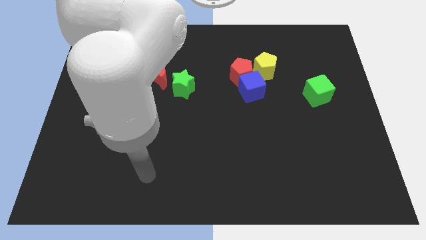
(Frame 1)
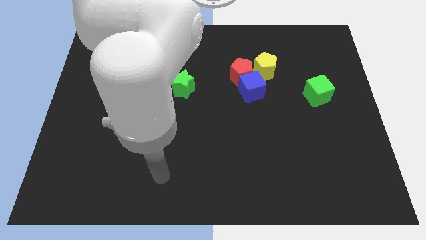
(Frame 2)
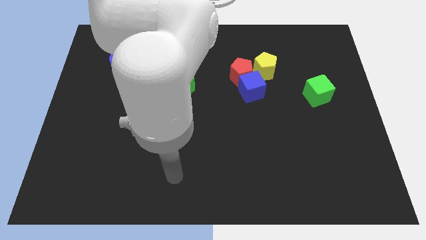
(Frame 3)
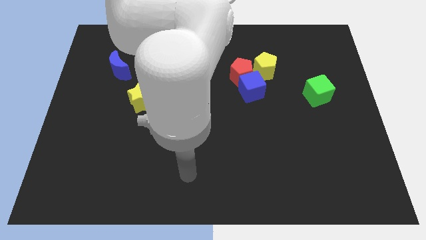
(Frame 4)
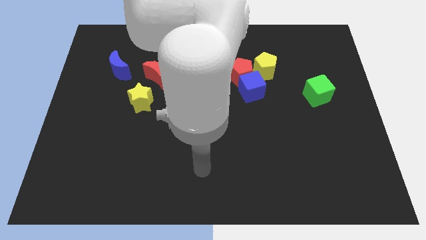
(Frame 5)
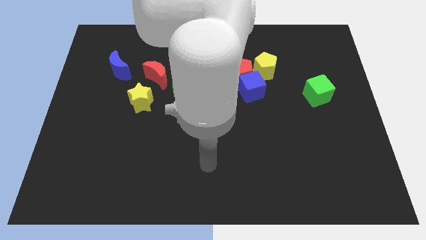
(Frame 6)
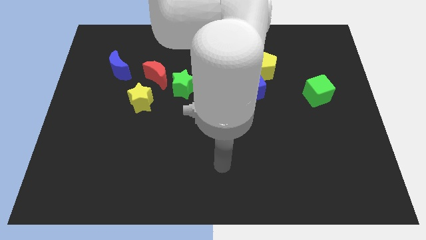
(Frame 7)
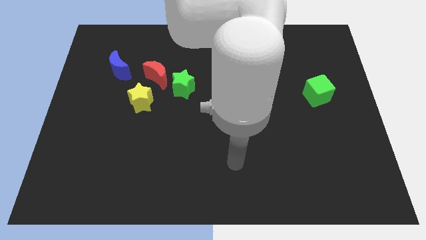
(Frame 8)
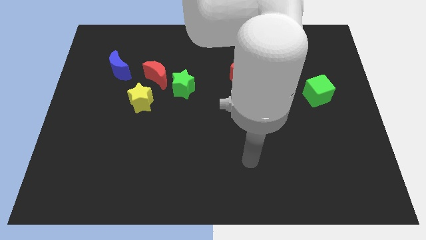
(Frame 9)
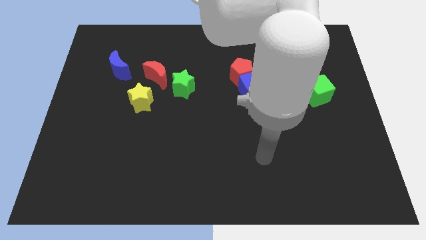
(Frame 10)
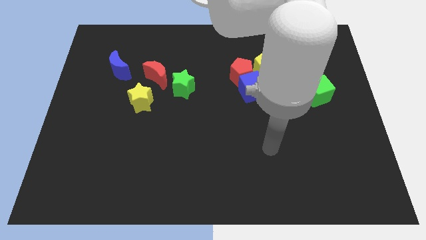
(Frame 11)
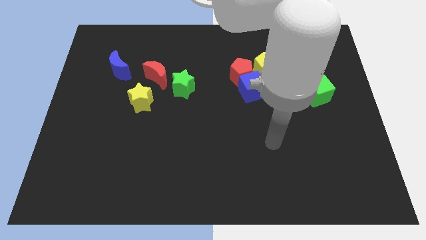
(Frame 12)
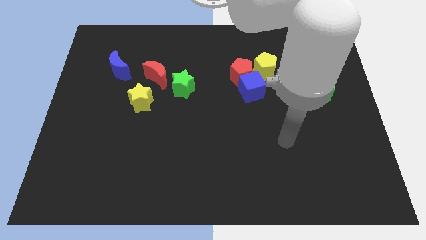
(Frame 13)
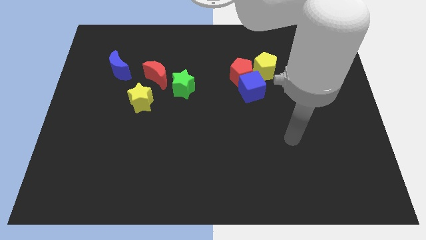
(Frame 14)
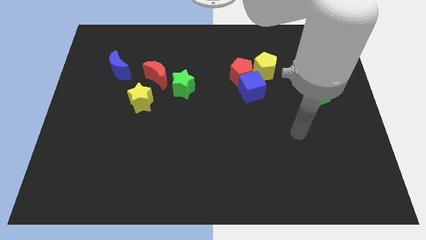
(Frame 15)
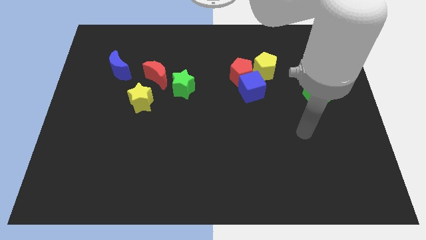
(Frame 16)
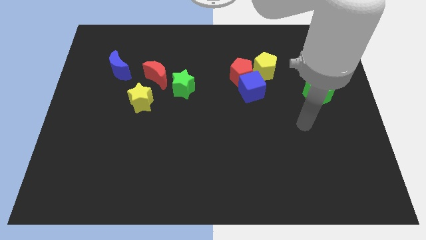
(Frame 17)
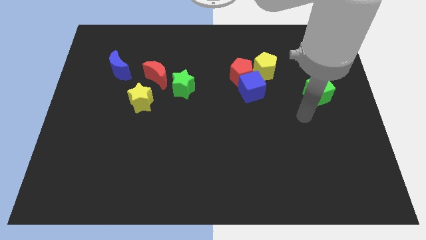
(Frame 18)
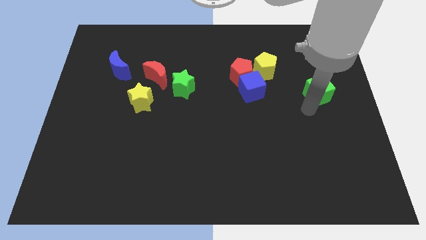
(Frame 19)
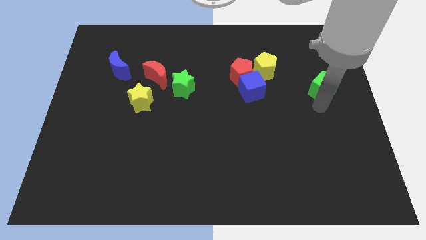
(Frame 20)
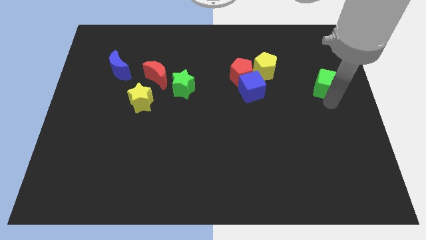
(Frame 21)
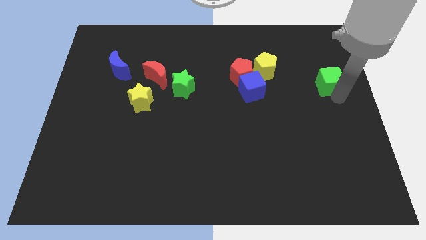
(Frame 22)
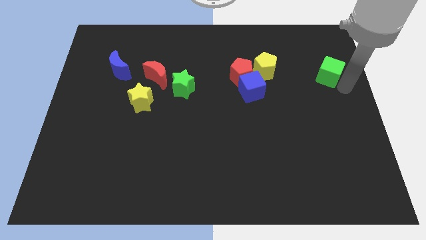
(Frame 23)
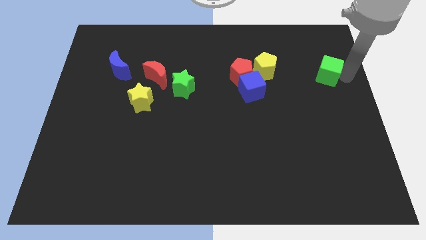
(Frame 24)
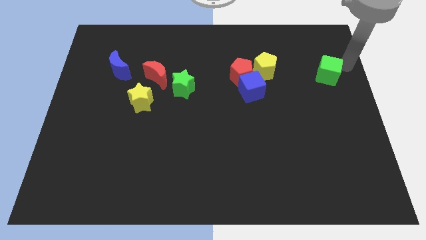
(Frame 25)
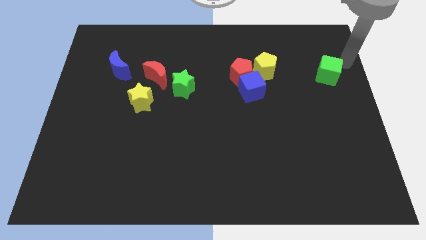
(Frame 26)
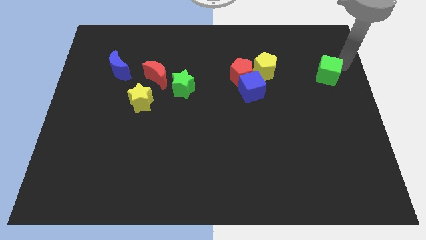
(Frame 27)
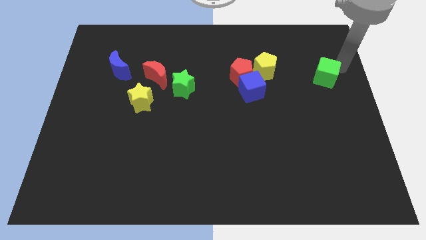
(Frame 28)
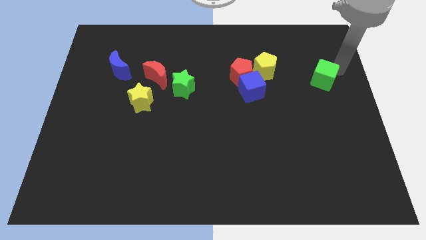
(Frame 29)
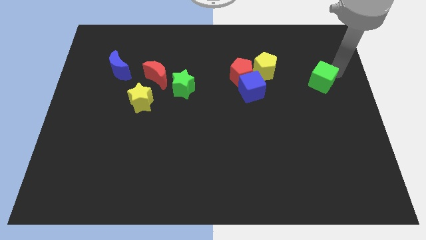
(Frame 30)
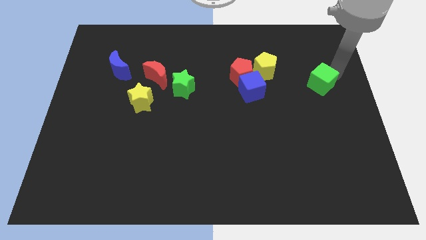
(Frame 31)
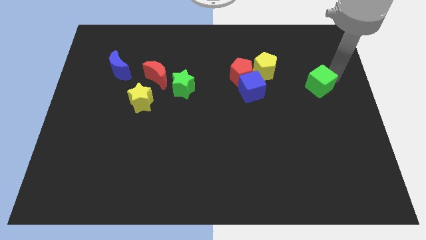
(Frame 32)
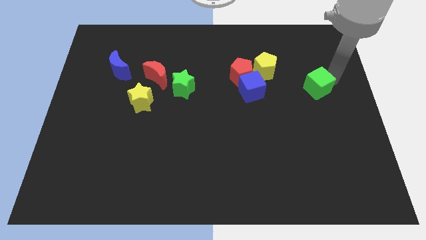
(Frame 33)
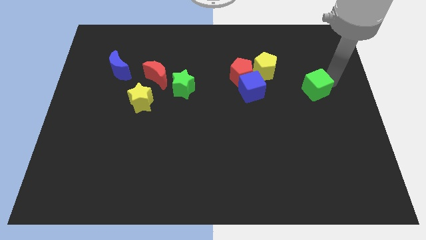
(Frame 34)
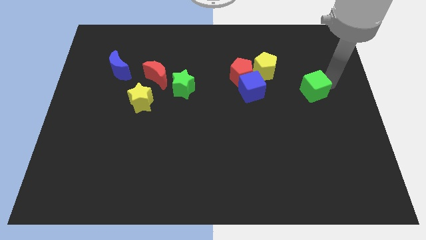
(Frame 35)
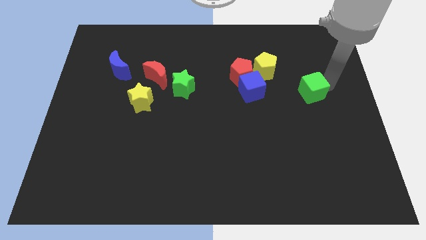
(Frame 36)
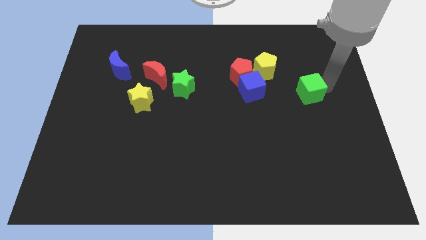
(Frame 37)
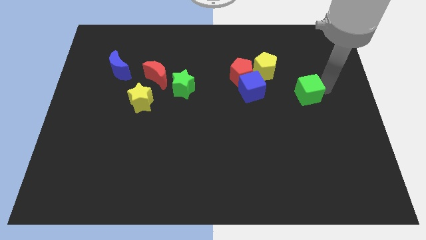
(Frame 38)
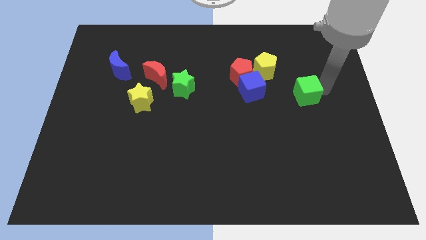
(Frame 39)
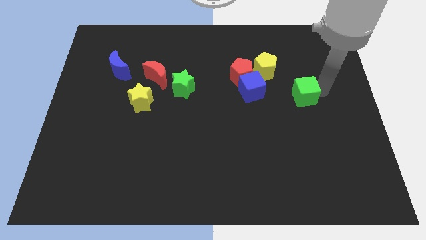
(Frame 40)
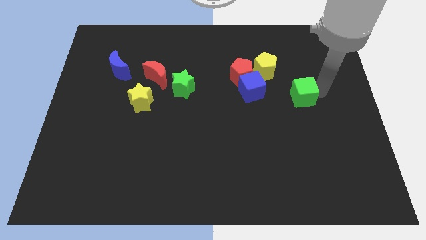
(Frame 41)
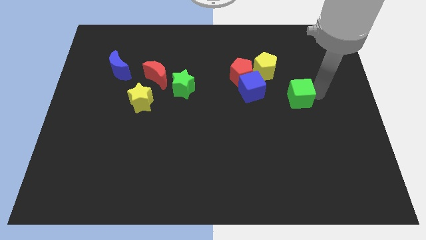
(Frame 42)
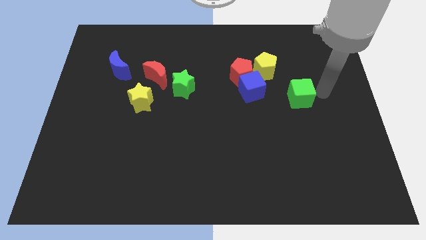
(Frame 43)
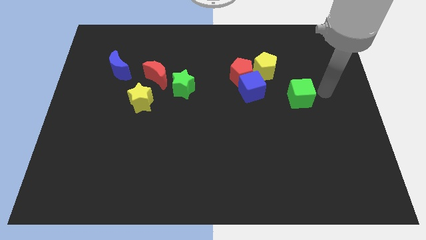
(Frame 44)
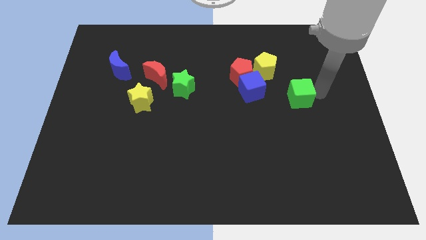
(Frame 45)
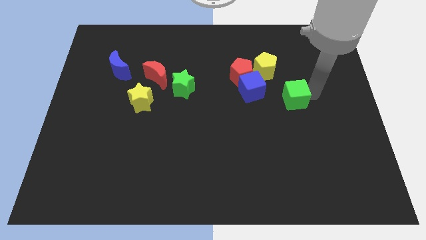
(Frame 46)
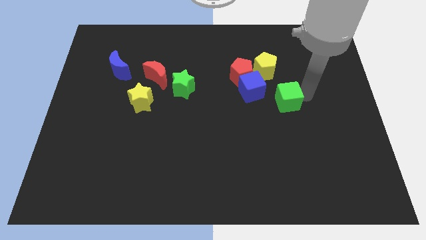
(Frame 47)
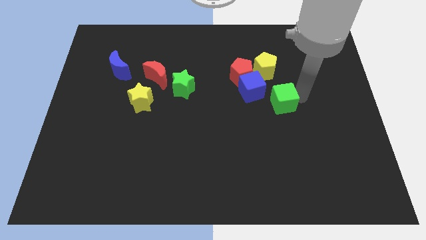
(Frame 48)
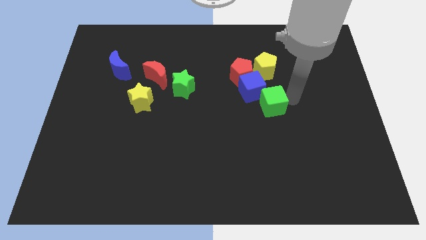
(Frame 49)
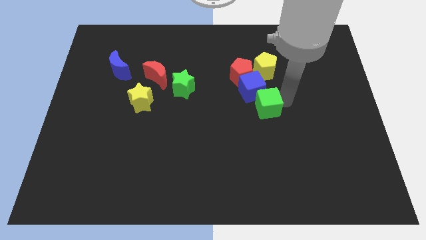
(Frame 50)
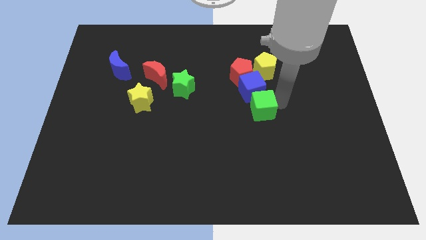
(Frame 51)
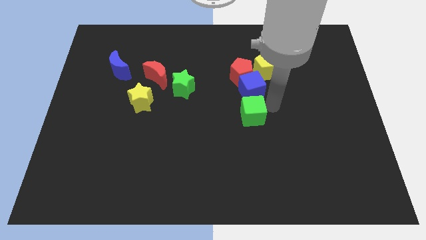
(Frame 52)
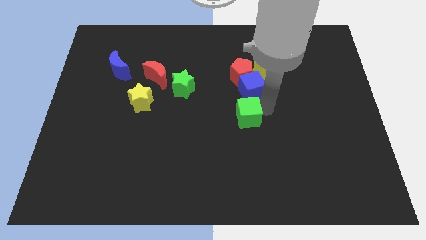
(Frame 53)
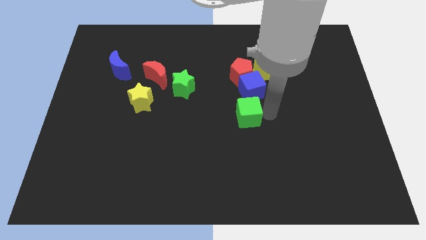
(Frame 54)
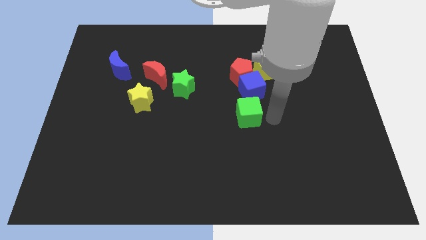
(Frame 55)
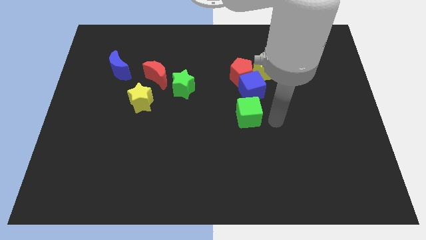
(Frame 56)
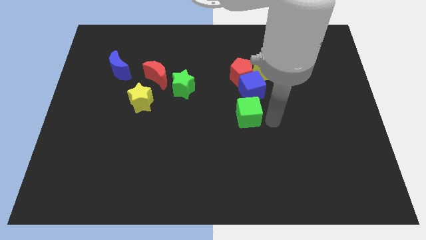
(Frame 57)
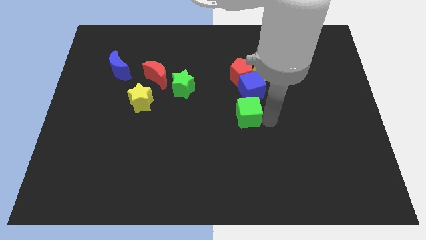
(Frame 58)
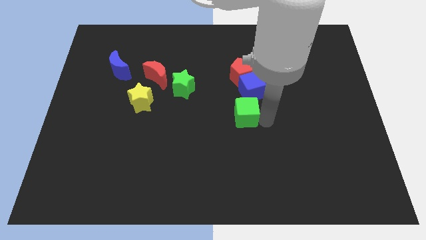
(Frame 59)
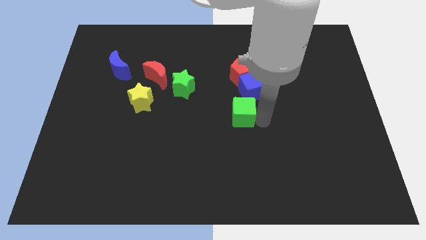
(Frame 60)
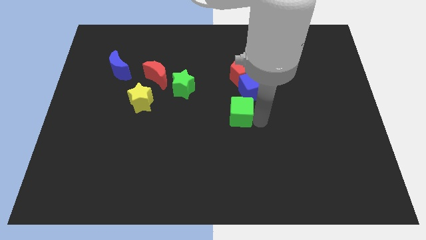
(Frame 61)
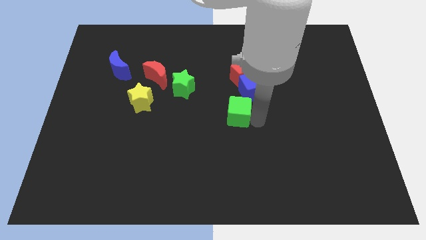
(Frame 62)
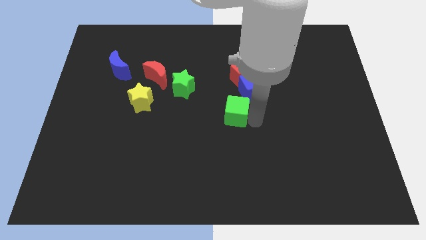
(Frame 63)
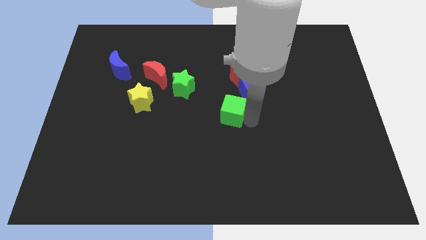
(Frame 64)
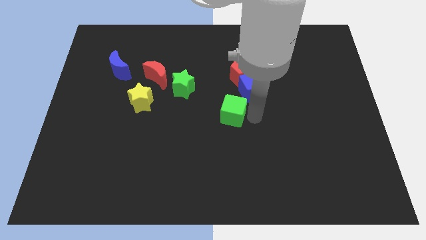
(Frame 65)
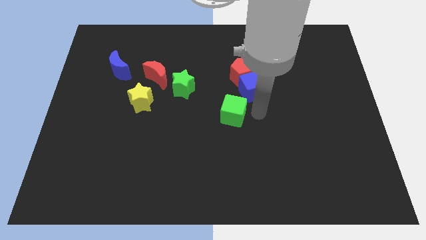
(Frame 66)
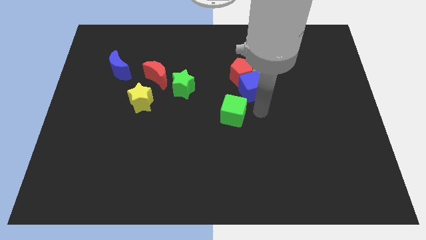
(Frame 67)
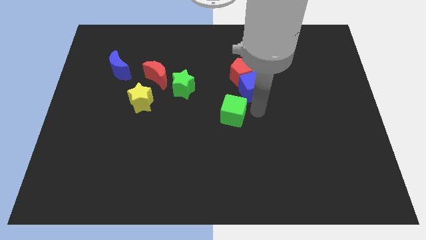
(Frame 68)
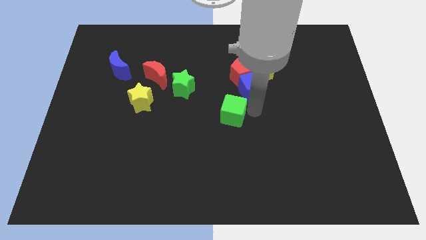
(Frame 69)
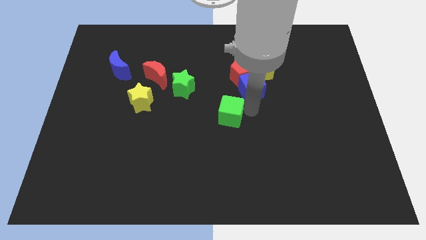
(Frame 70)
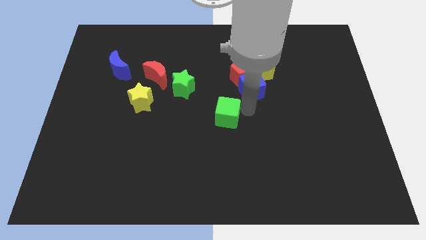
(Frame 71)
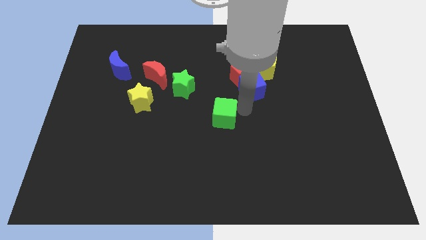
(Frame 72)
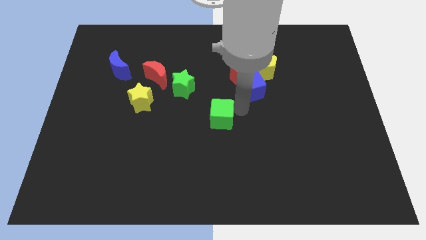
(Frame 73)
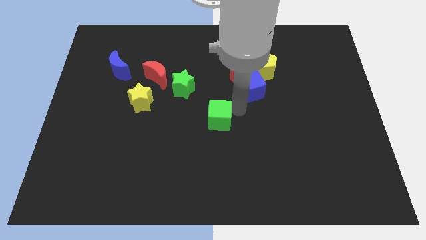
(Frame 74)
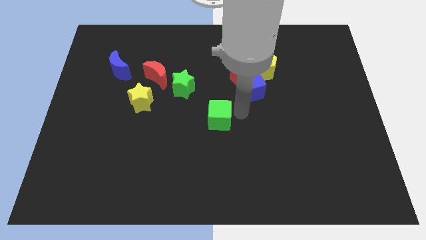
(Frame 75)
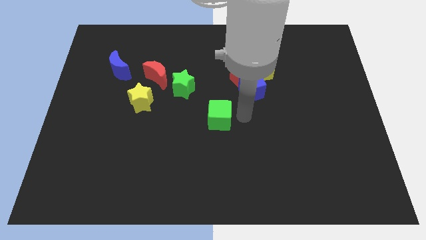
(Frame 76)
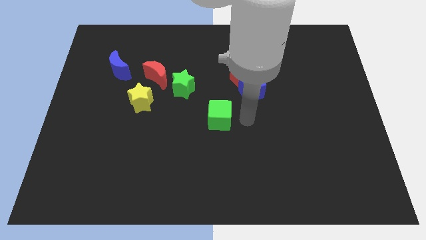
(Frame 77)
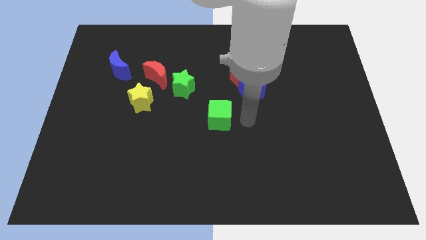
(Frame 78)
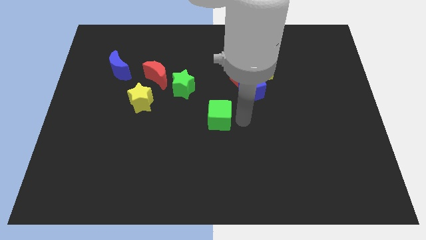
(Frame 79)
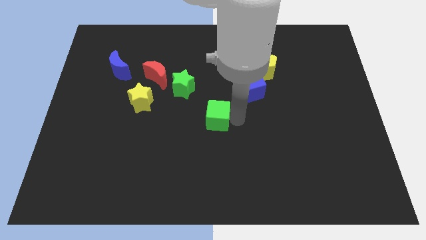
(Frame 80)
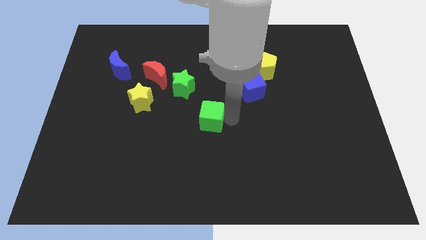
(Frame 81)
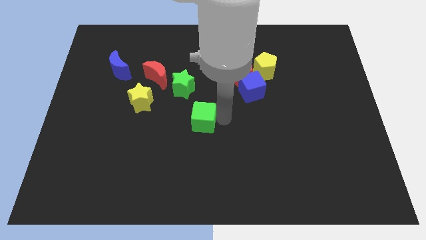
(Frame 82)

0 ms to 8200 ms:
move the green cube below the green star
